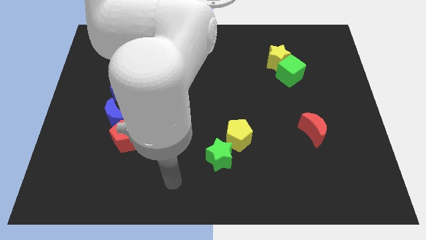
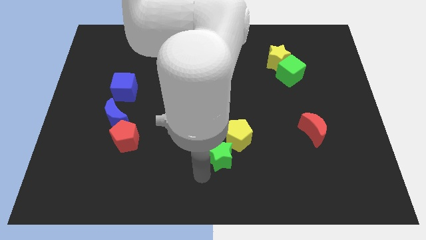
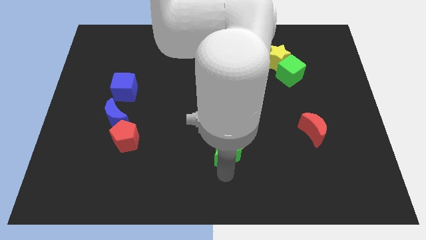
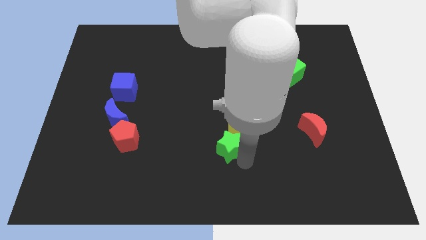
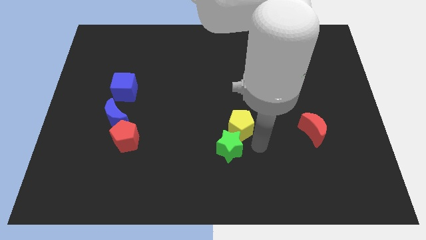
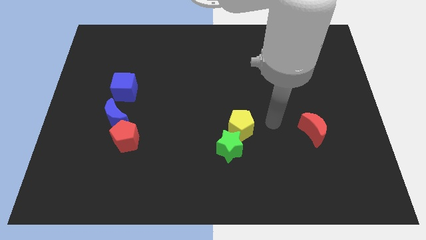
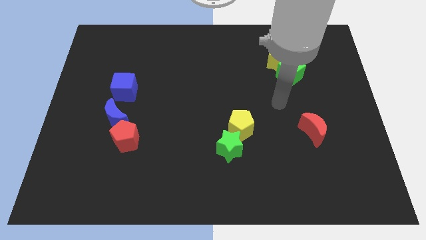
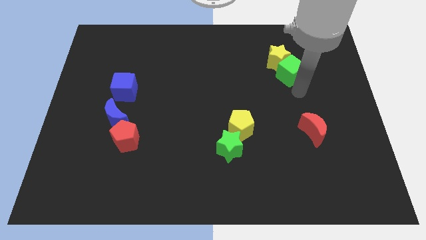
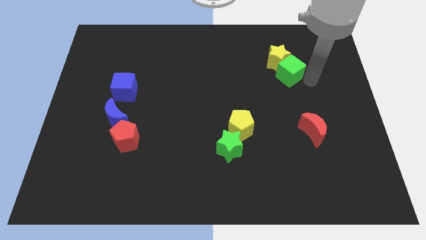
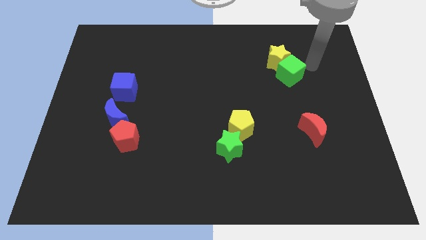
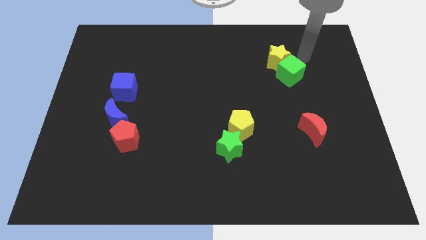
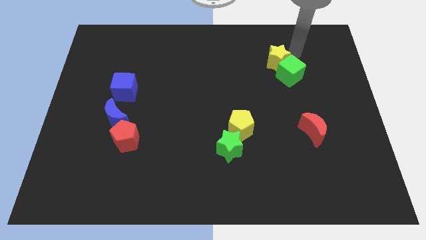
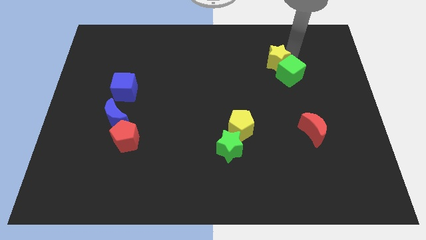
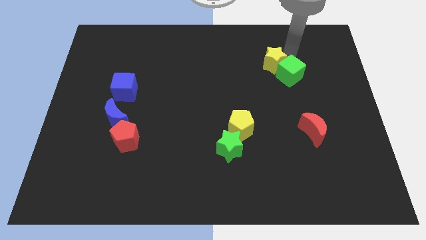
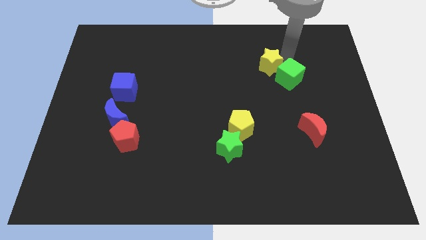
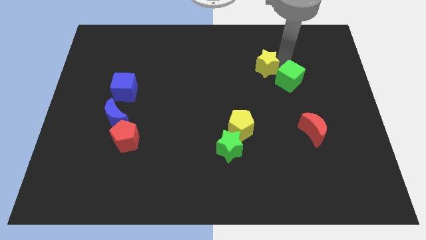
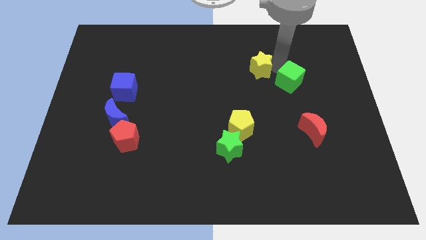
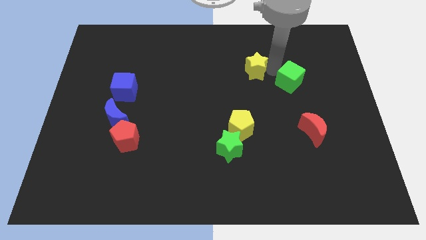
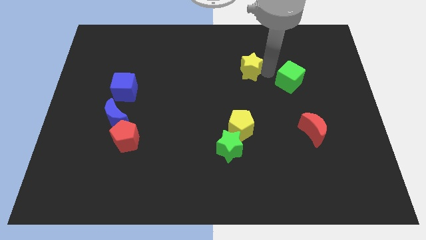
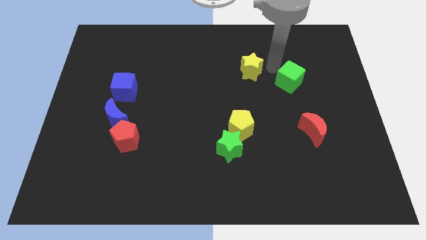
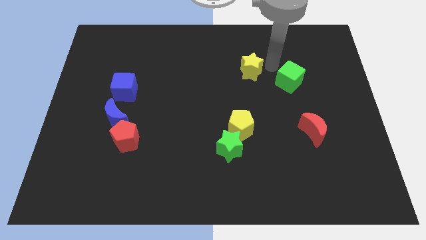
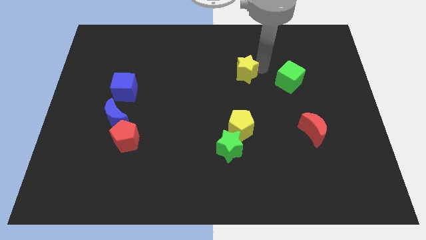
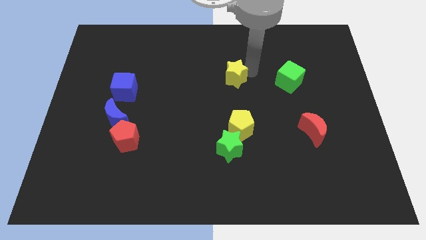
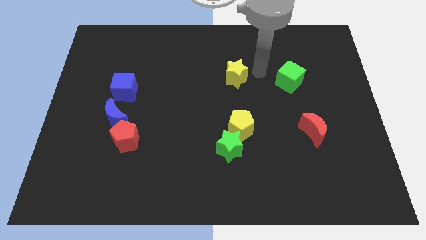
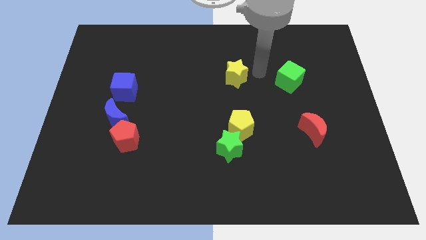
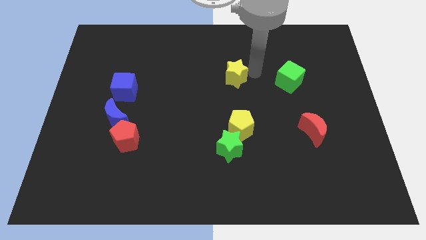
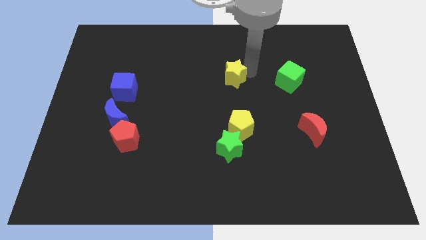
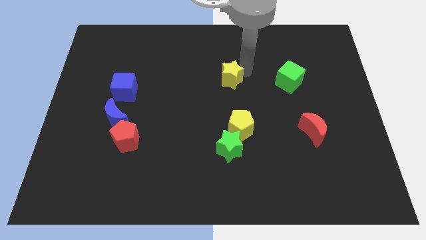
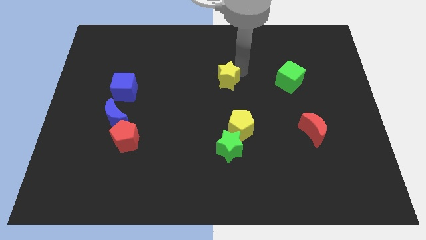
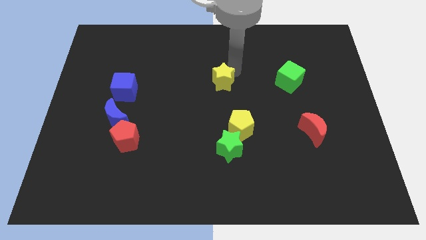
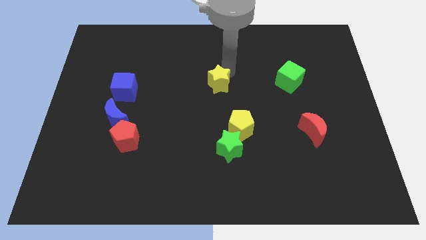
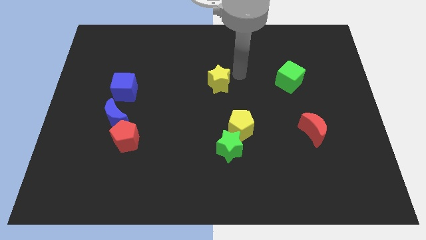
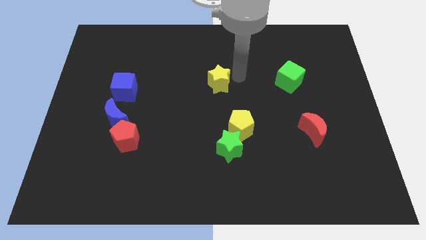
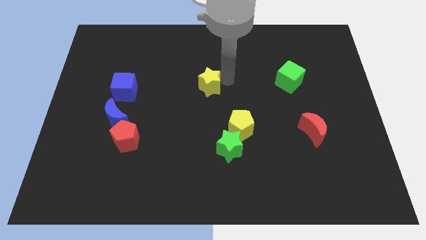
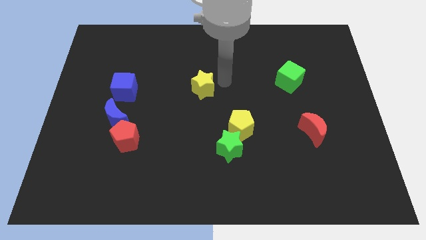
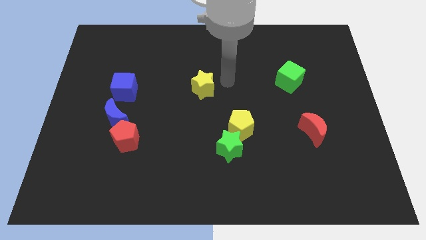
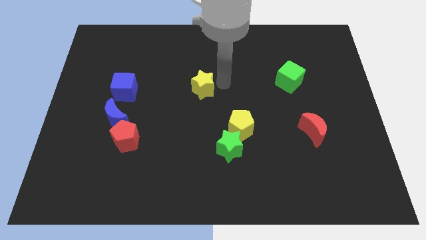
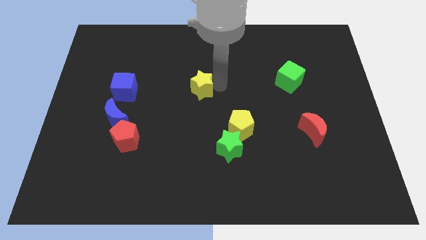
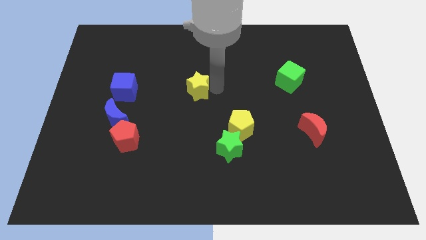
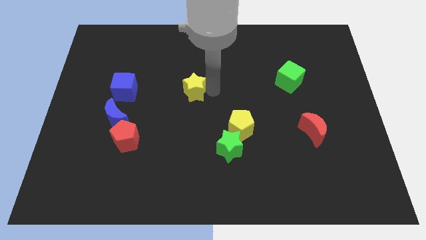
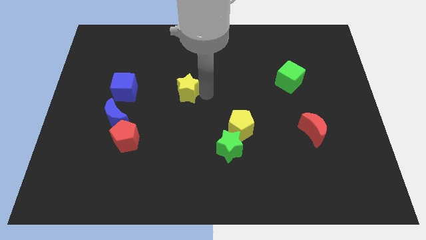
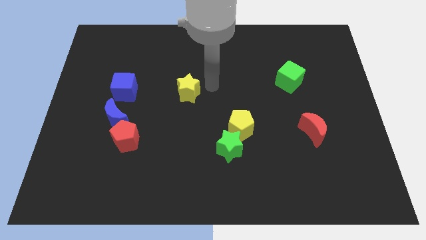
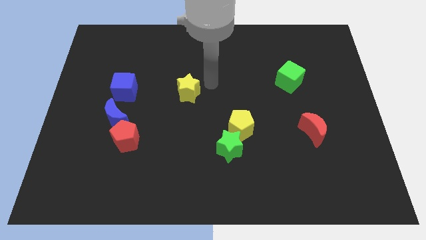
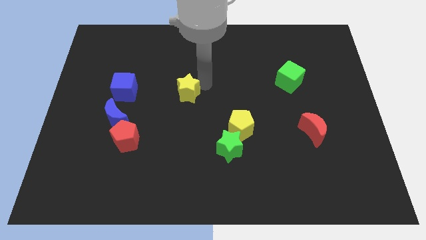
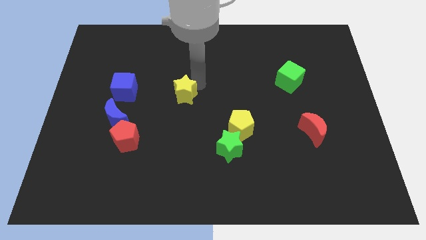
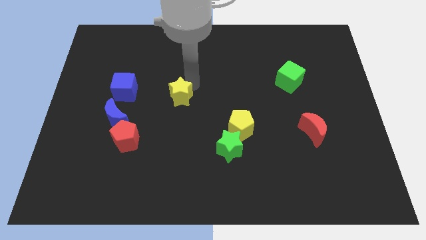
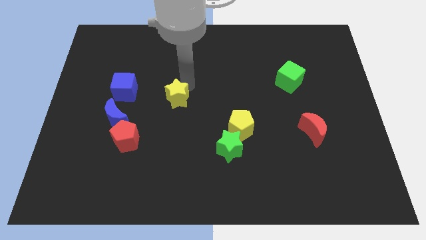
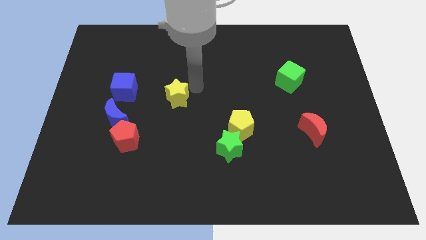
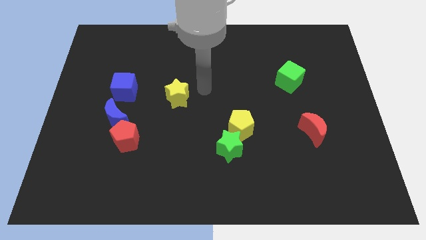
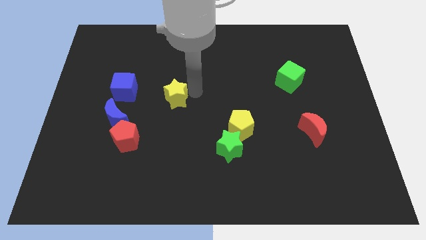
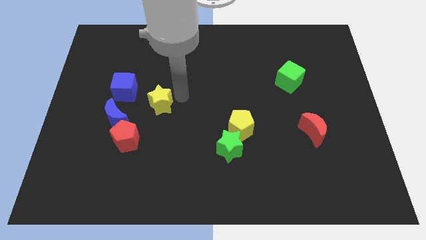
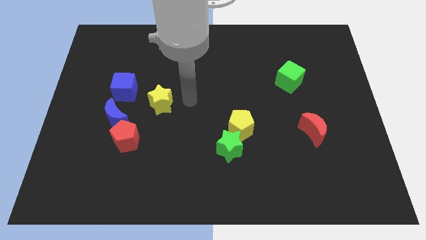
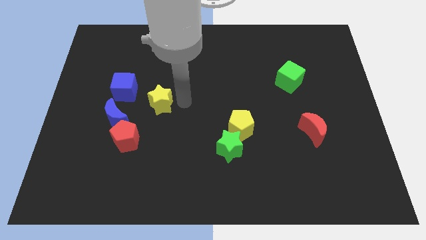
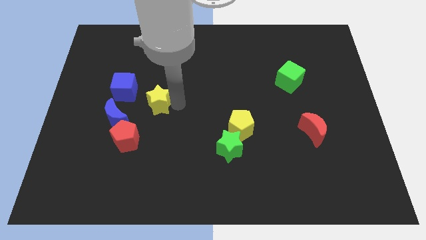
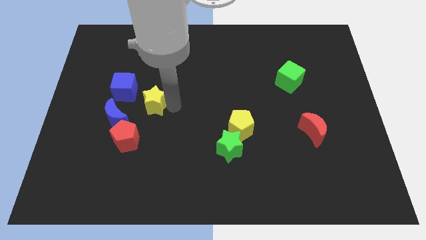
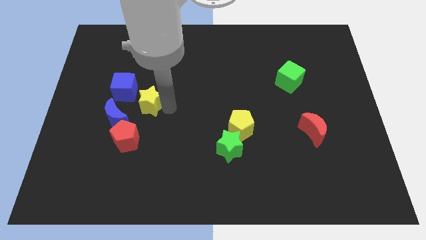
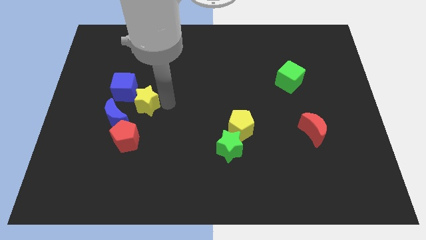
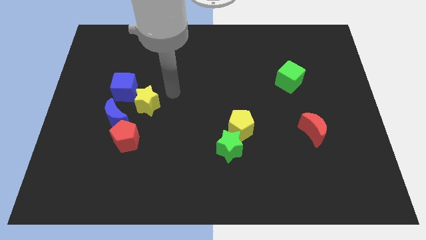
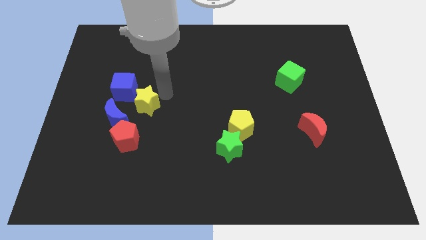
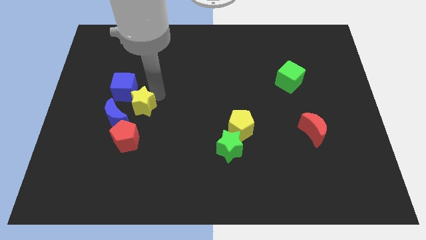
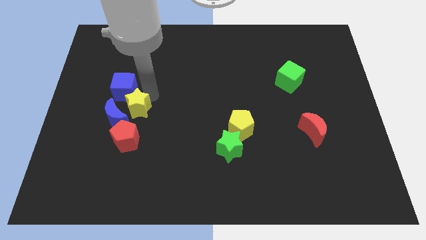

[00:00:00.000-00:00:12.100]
push the yellow star towards the blue moon

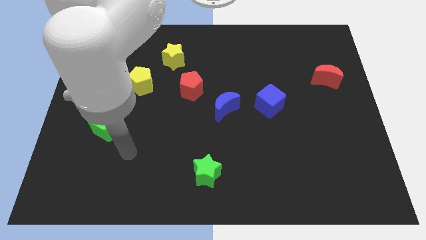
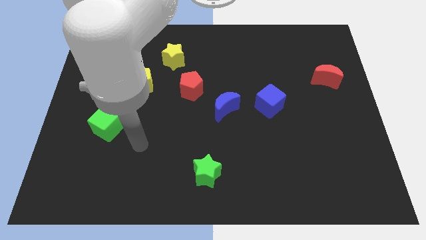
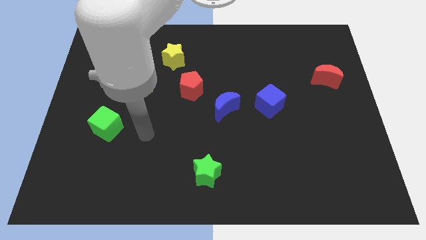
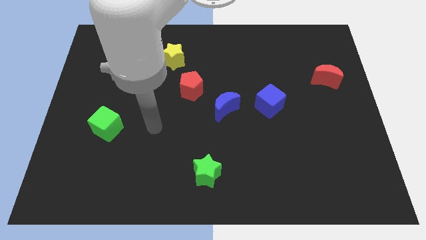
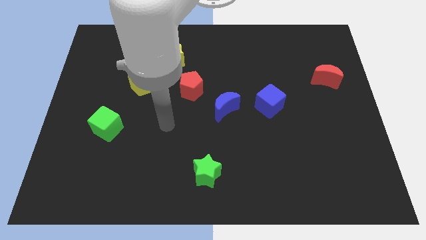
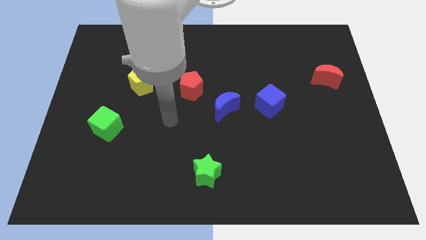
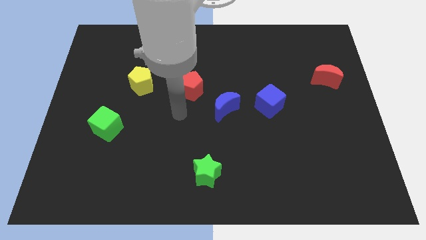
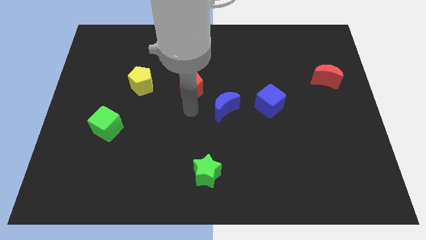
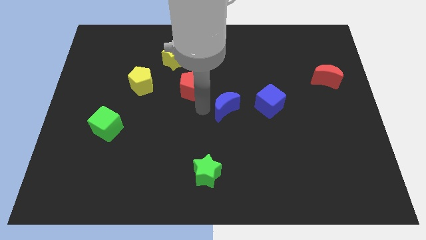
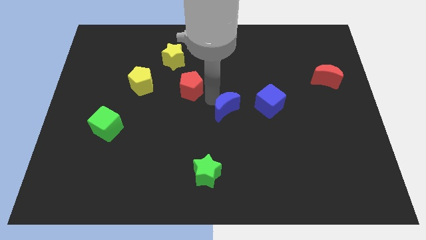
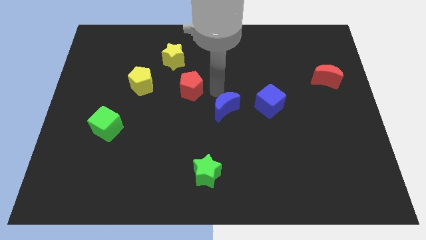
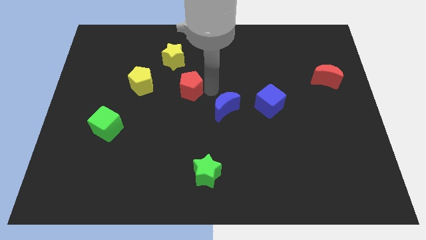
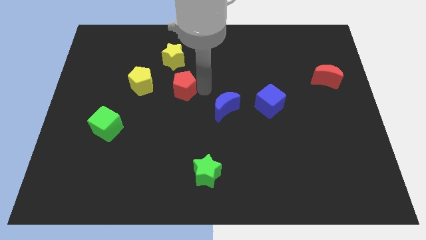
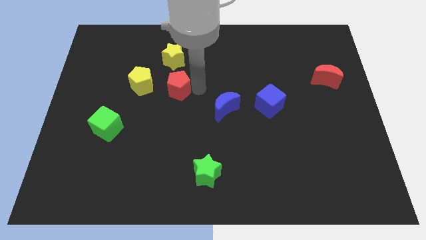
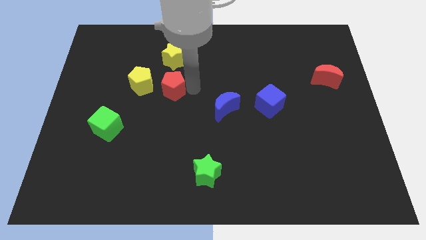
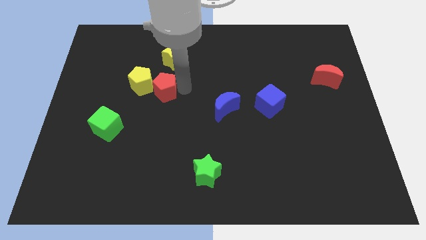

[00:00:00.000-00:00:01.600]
move the red pentagon close to the yellow pentagon
